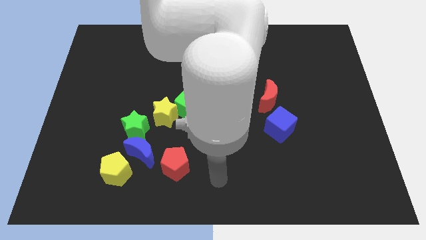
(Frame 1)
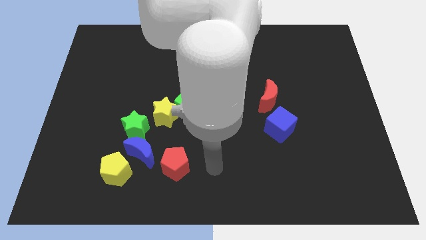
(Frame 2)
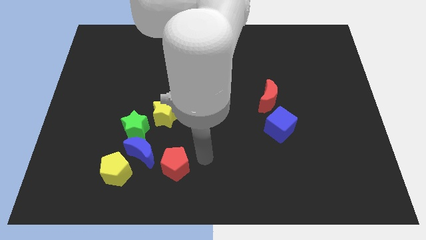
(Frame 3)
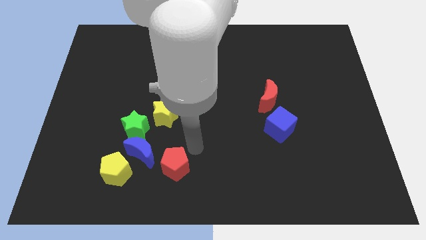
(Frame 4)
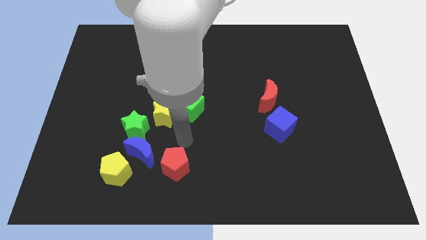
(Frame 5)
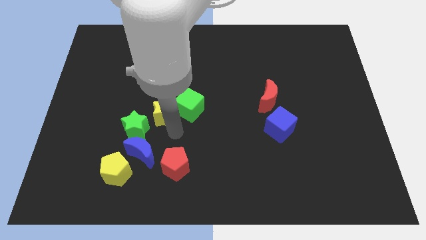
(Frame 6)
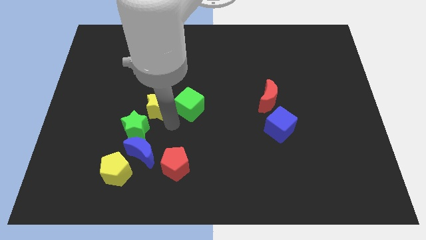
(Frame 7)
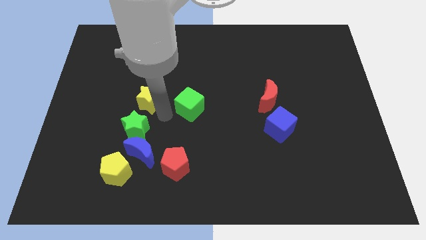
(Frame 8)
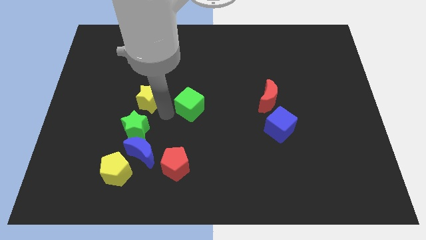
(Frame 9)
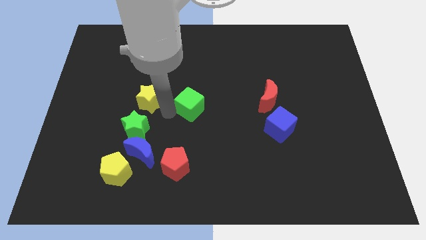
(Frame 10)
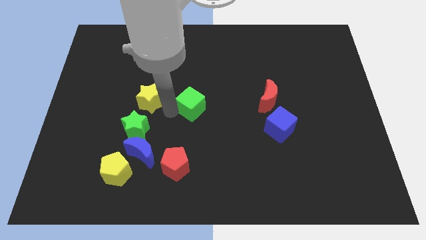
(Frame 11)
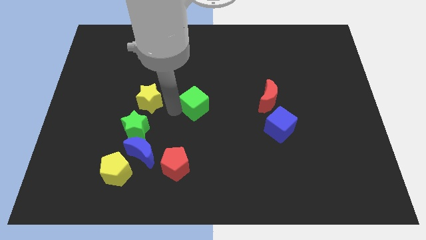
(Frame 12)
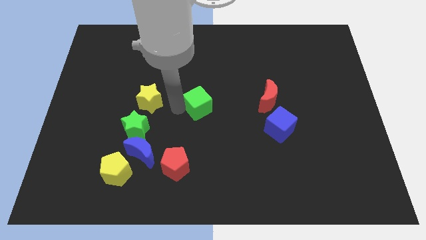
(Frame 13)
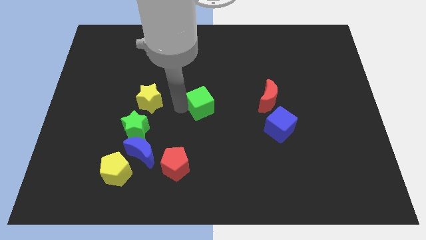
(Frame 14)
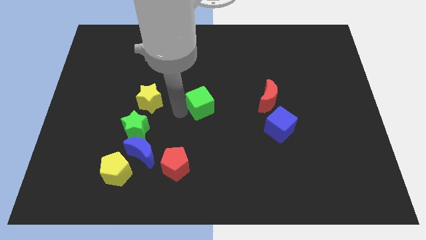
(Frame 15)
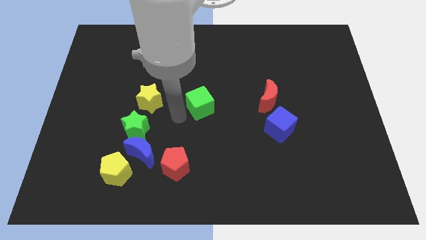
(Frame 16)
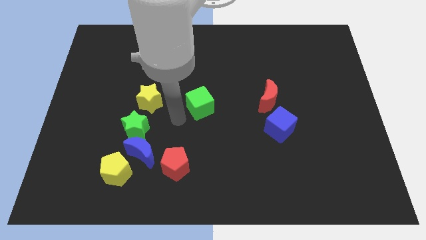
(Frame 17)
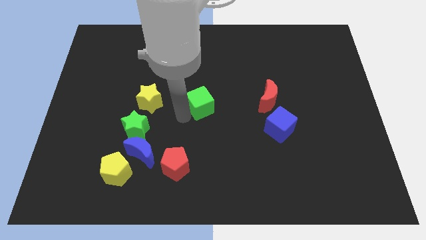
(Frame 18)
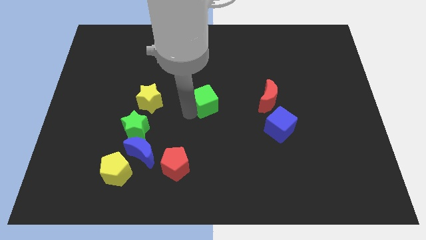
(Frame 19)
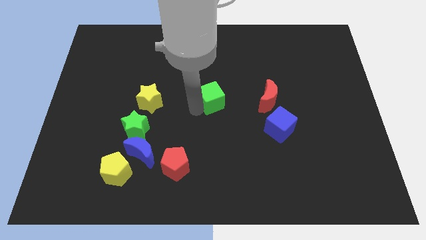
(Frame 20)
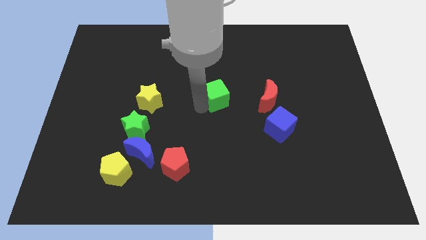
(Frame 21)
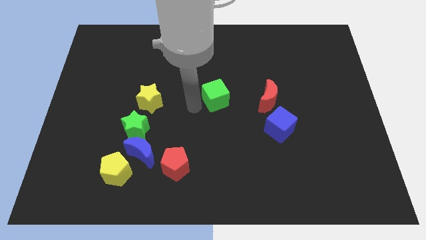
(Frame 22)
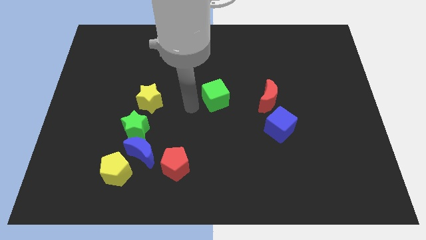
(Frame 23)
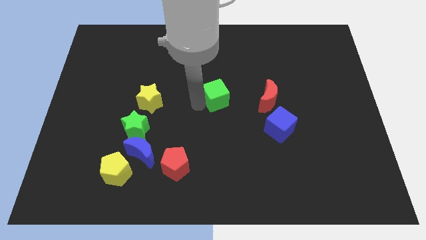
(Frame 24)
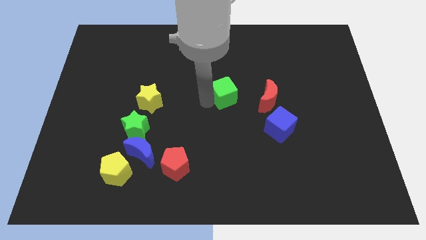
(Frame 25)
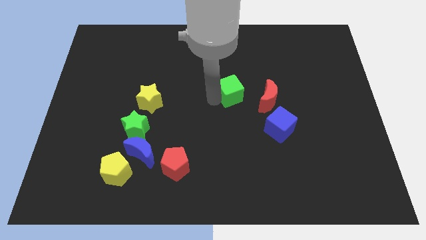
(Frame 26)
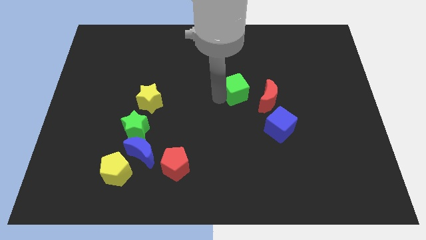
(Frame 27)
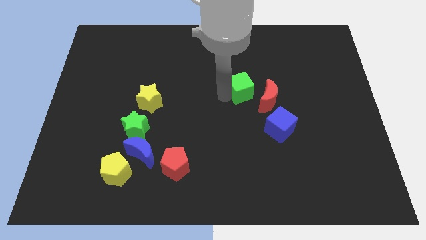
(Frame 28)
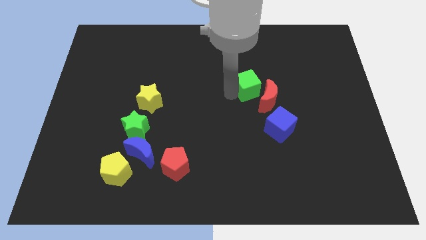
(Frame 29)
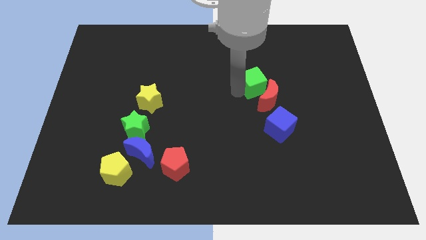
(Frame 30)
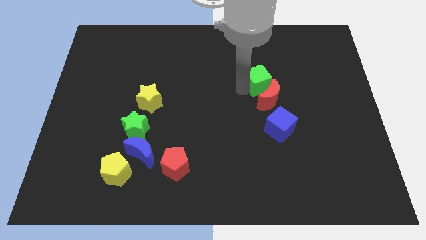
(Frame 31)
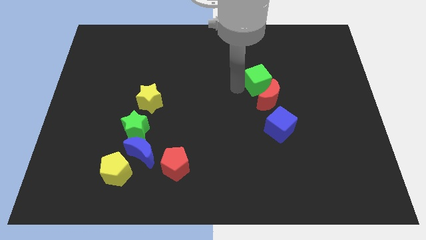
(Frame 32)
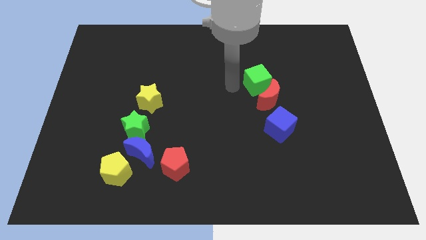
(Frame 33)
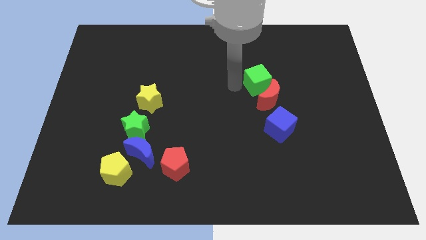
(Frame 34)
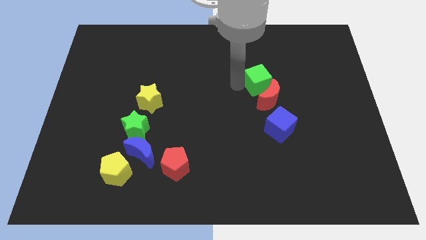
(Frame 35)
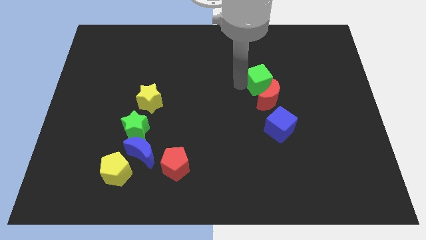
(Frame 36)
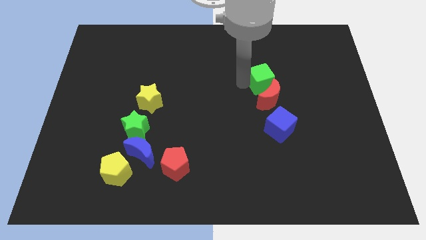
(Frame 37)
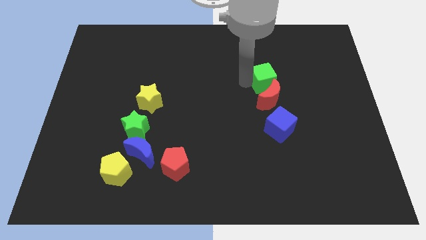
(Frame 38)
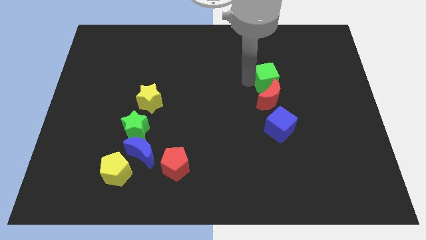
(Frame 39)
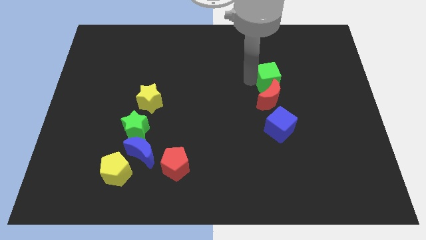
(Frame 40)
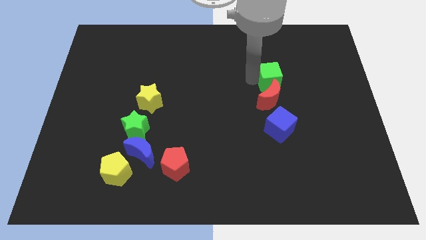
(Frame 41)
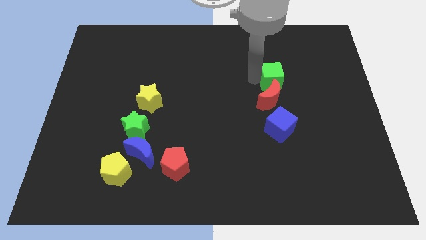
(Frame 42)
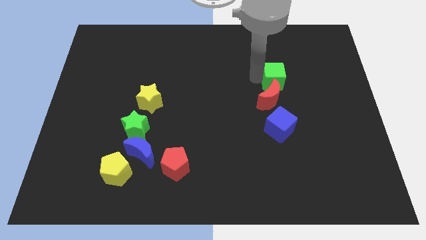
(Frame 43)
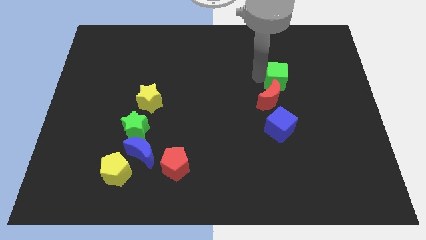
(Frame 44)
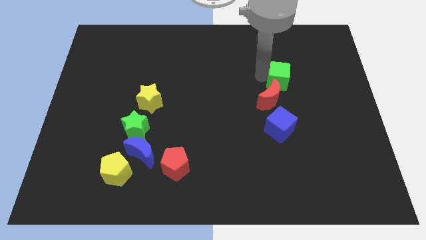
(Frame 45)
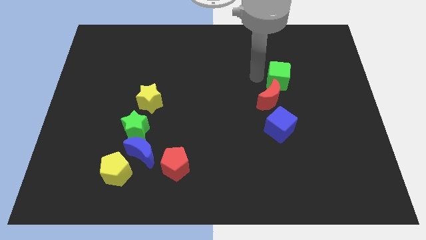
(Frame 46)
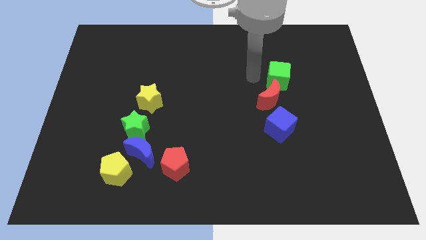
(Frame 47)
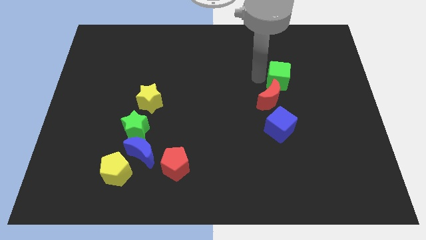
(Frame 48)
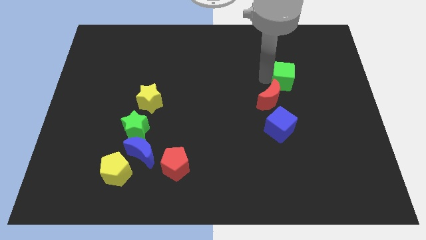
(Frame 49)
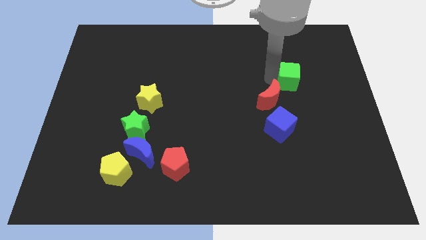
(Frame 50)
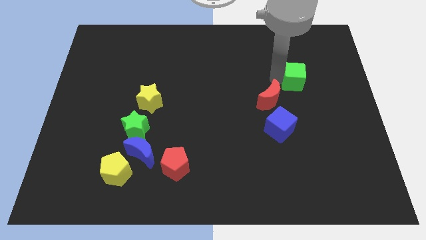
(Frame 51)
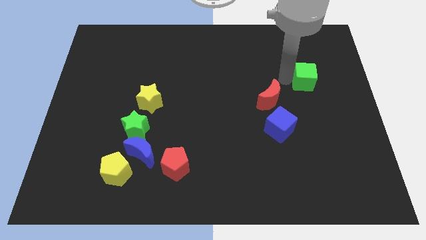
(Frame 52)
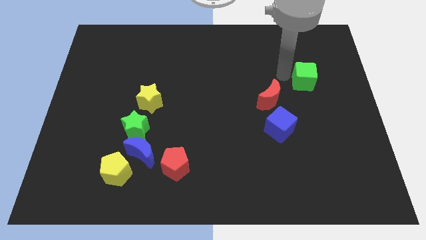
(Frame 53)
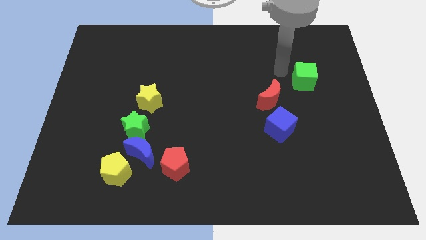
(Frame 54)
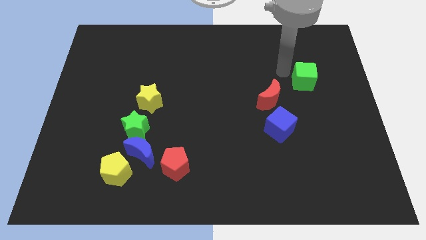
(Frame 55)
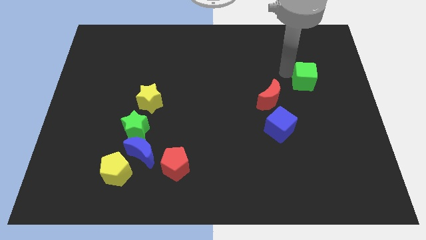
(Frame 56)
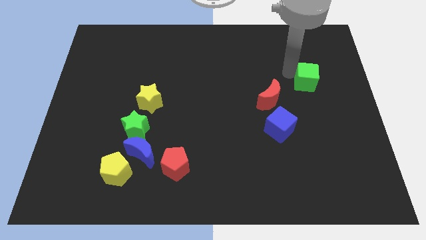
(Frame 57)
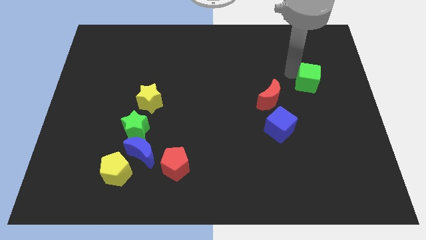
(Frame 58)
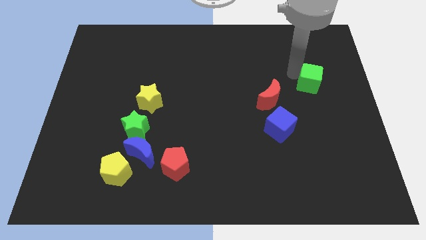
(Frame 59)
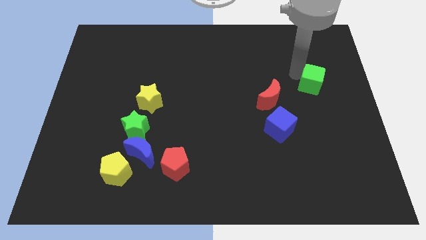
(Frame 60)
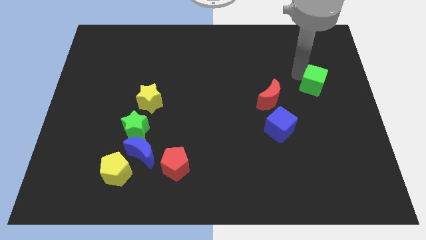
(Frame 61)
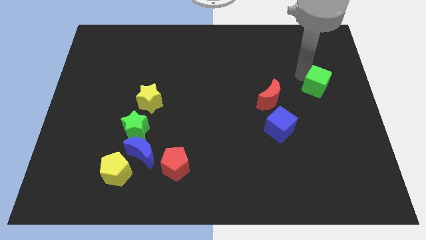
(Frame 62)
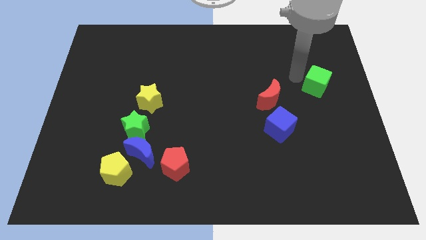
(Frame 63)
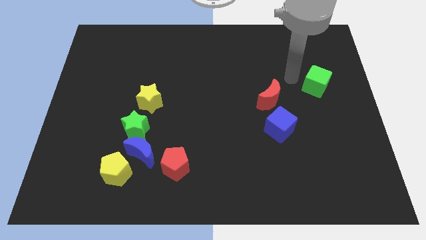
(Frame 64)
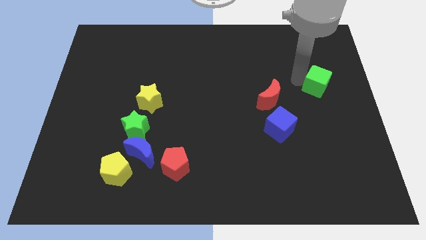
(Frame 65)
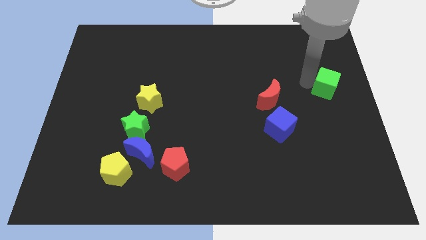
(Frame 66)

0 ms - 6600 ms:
put the green cube to the center right

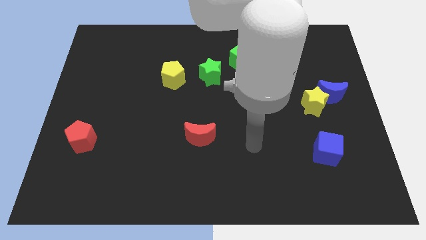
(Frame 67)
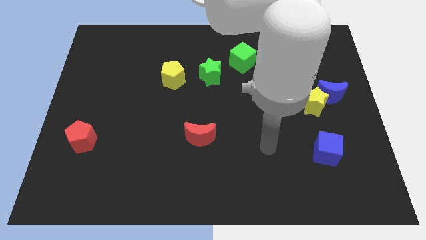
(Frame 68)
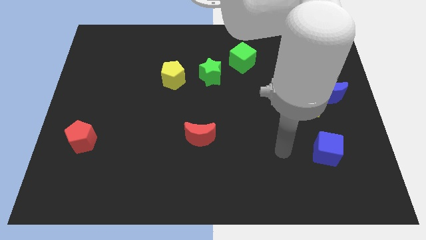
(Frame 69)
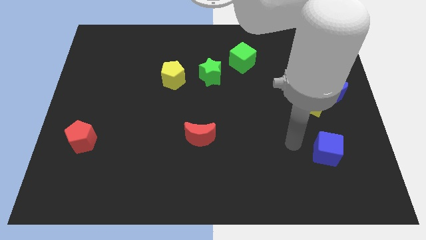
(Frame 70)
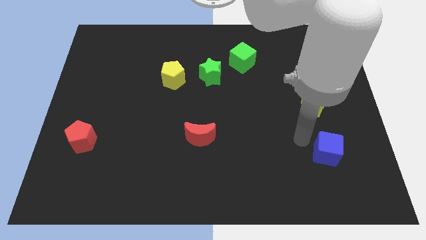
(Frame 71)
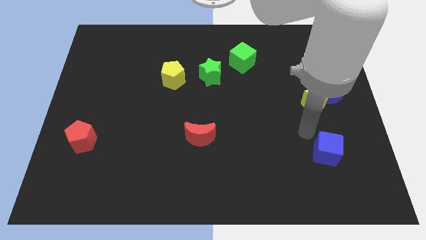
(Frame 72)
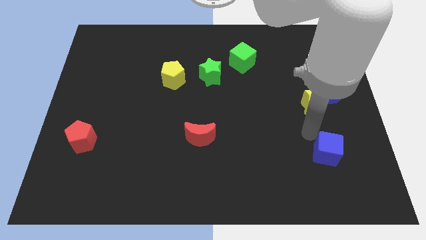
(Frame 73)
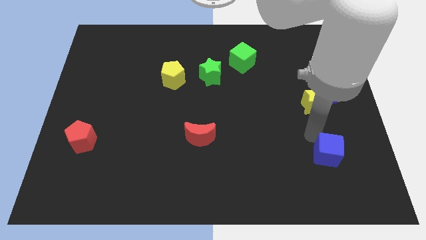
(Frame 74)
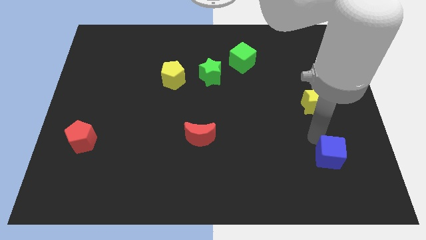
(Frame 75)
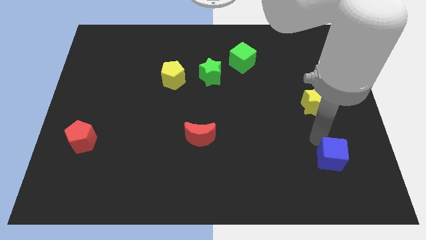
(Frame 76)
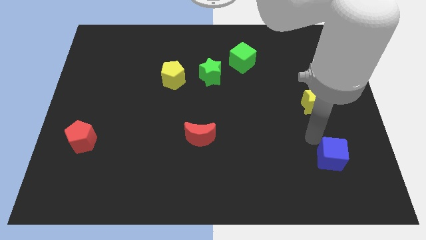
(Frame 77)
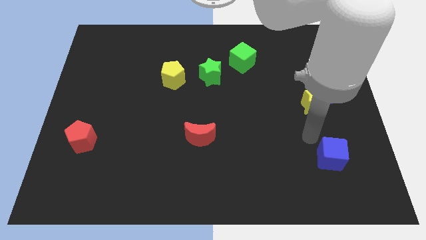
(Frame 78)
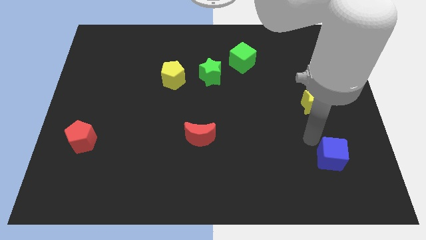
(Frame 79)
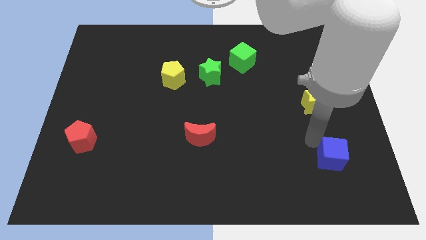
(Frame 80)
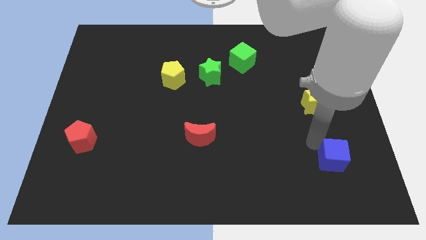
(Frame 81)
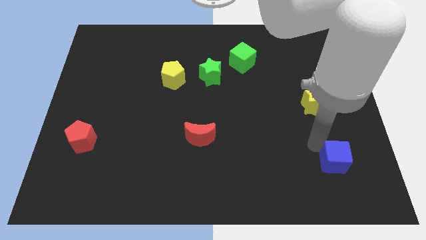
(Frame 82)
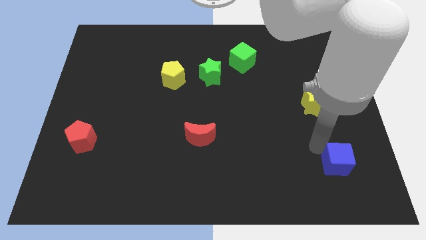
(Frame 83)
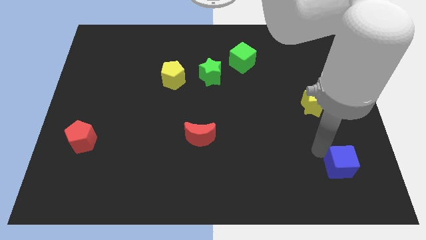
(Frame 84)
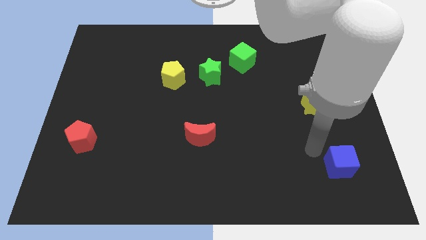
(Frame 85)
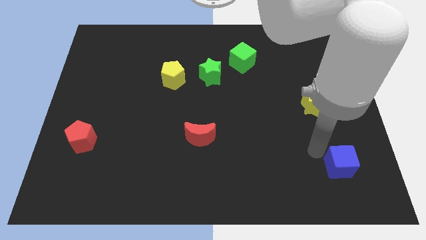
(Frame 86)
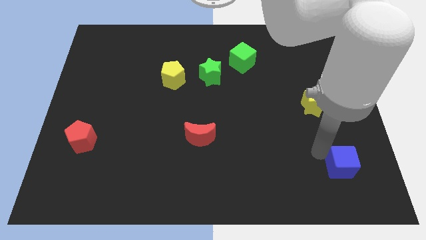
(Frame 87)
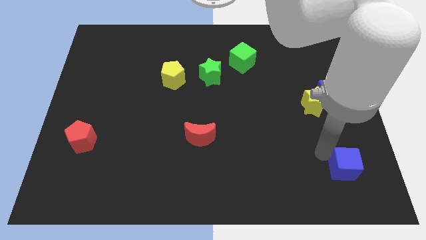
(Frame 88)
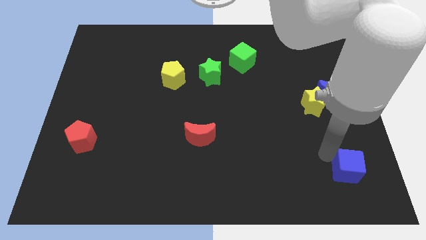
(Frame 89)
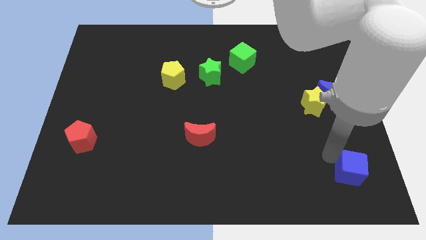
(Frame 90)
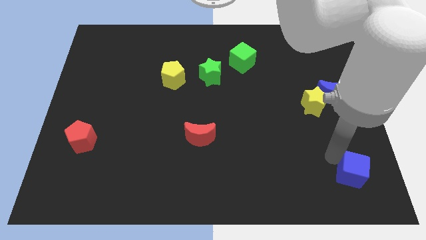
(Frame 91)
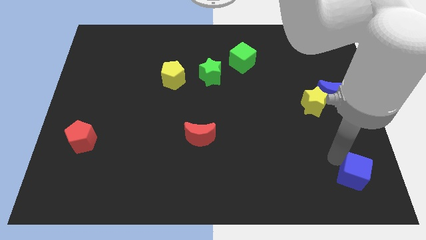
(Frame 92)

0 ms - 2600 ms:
move the blue cube to the bottom right corner
